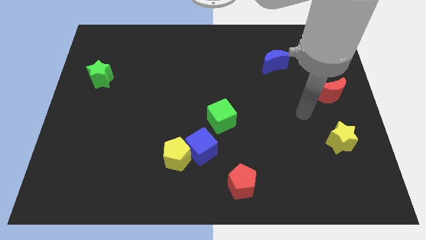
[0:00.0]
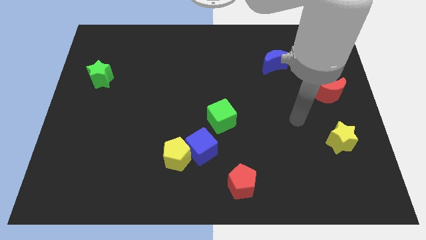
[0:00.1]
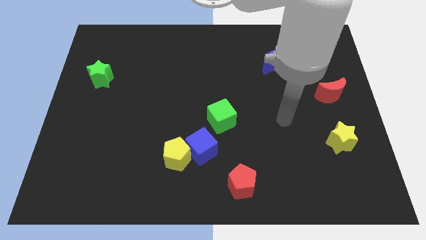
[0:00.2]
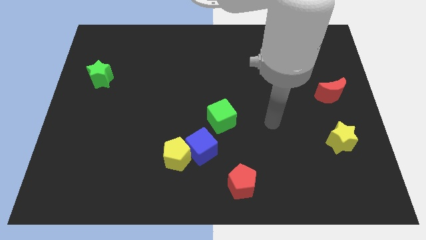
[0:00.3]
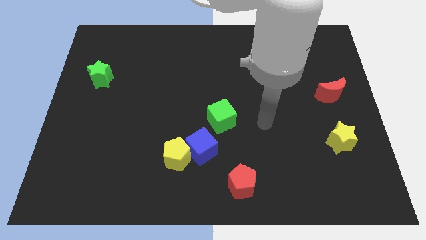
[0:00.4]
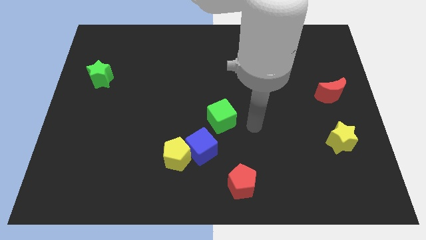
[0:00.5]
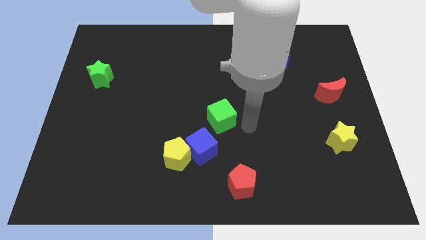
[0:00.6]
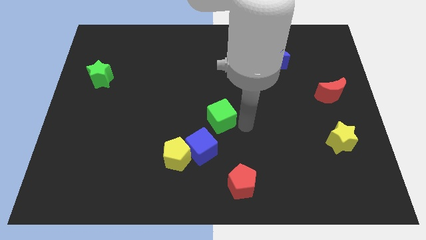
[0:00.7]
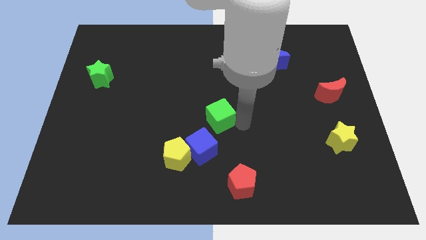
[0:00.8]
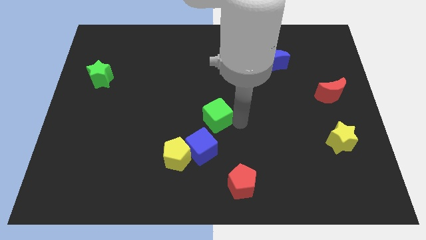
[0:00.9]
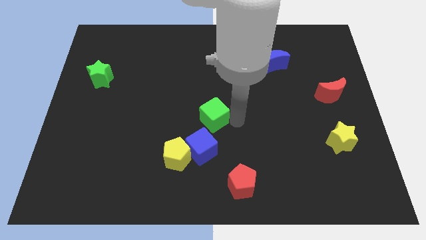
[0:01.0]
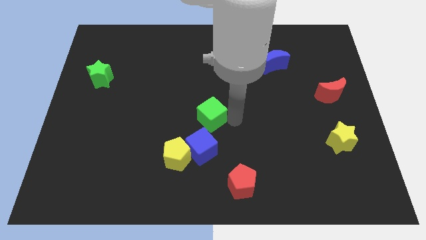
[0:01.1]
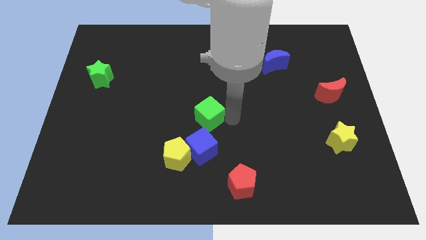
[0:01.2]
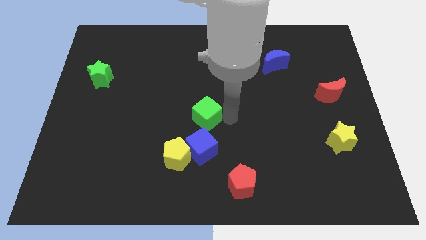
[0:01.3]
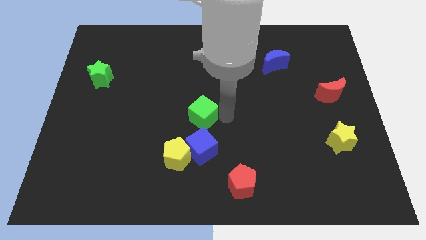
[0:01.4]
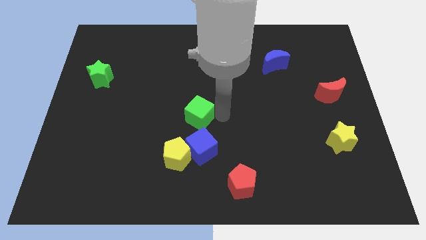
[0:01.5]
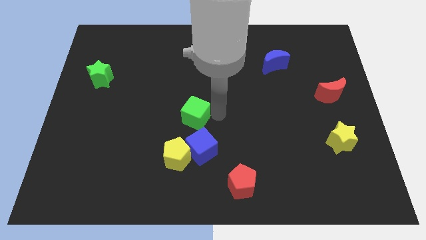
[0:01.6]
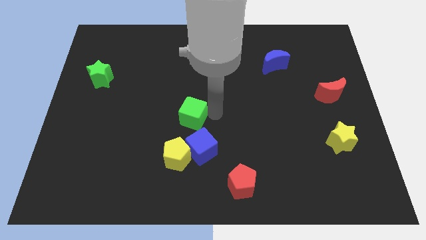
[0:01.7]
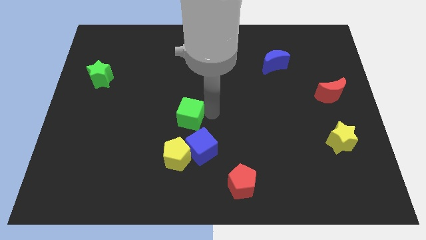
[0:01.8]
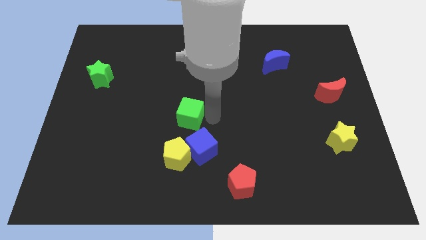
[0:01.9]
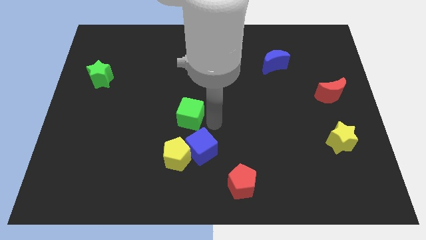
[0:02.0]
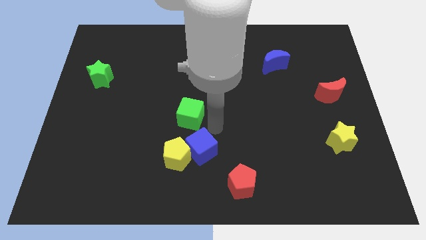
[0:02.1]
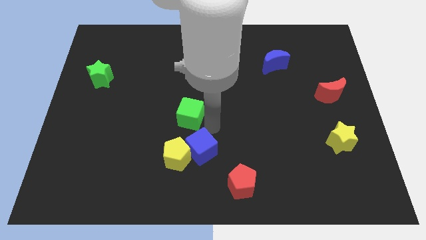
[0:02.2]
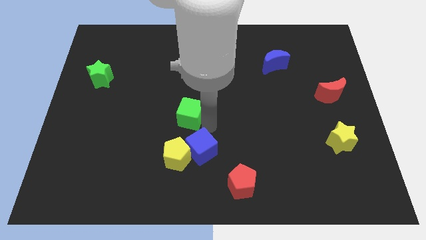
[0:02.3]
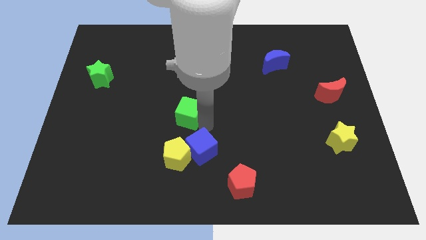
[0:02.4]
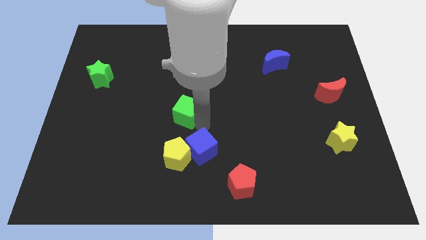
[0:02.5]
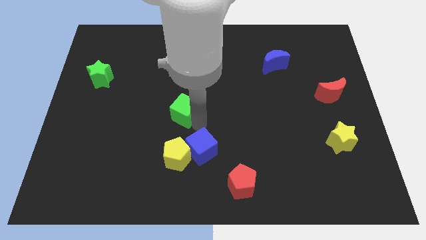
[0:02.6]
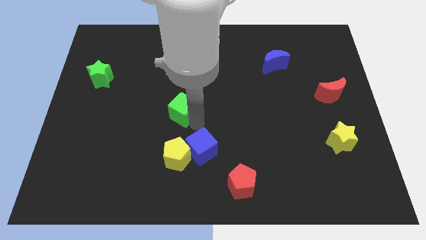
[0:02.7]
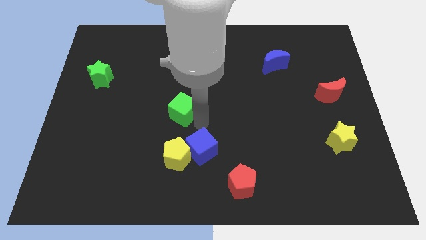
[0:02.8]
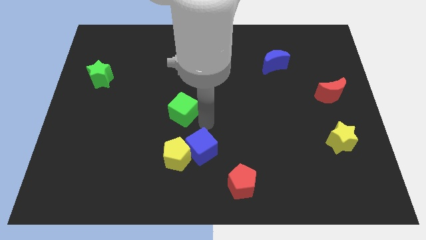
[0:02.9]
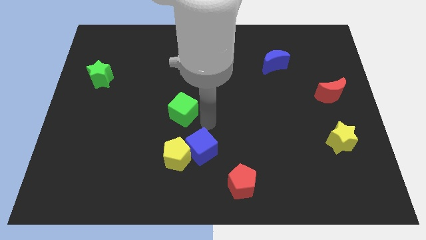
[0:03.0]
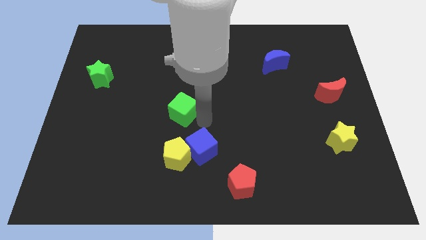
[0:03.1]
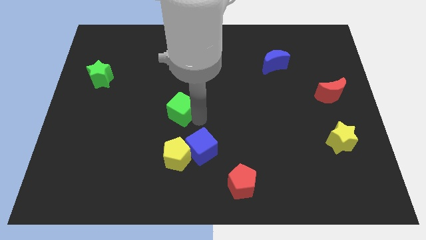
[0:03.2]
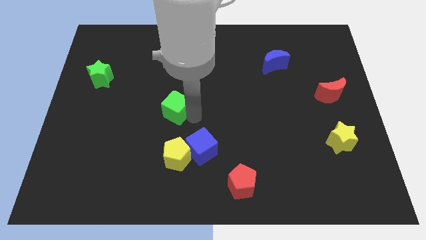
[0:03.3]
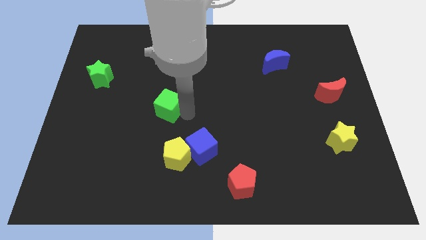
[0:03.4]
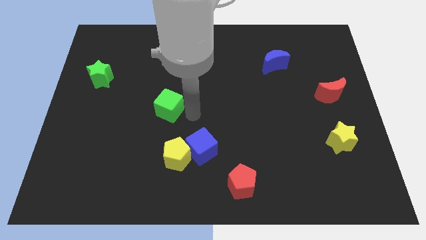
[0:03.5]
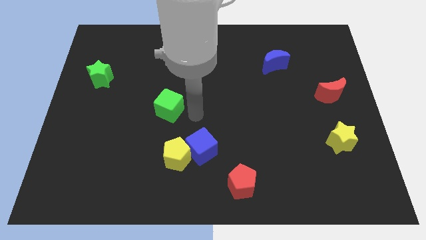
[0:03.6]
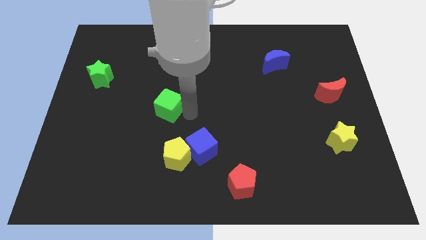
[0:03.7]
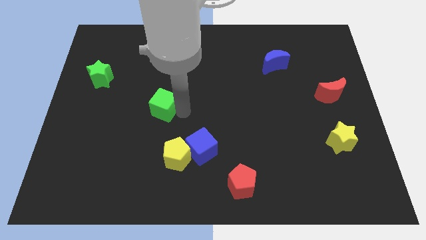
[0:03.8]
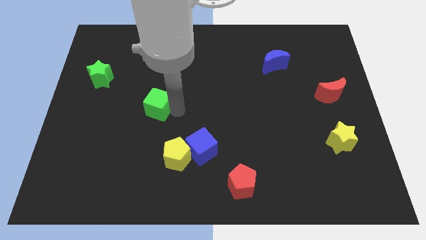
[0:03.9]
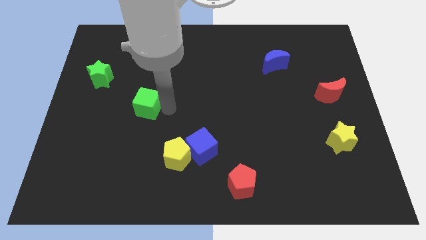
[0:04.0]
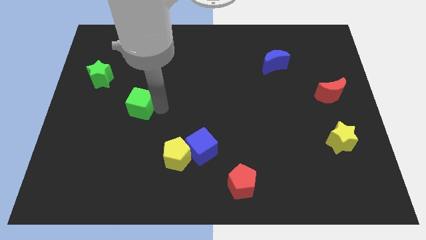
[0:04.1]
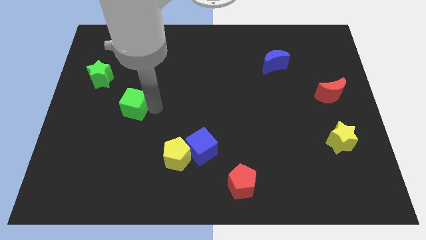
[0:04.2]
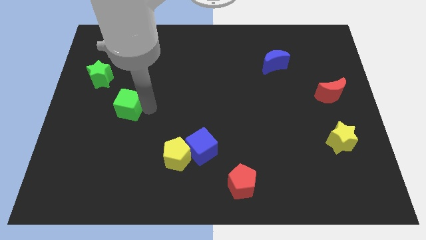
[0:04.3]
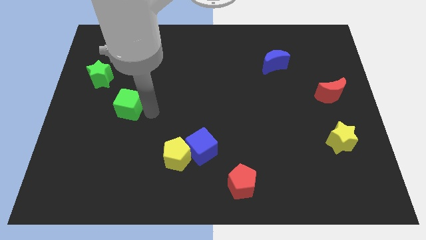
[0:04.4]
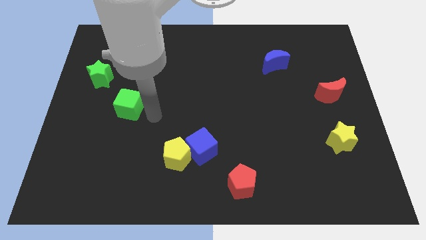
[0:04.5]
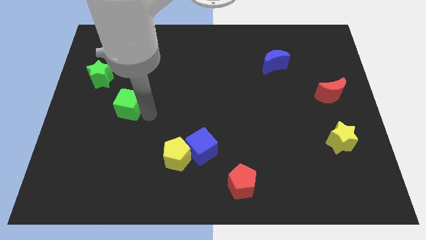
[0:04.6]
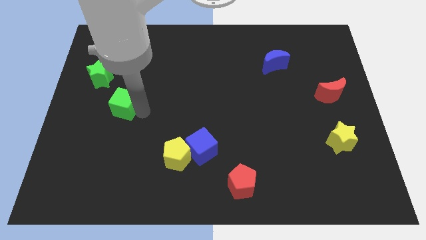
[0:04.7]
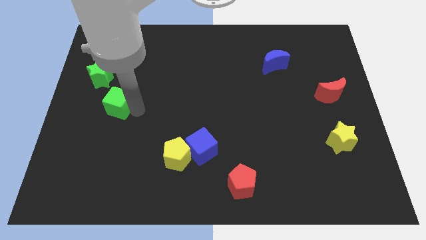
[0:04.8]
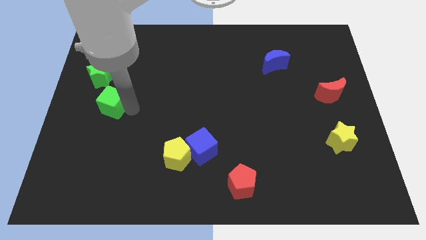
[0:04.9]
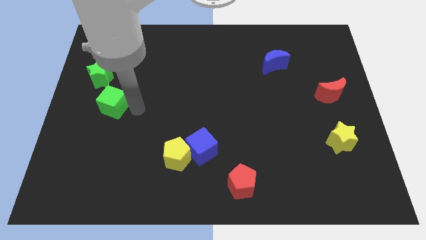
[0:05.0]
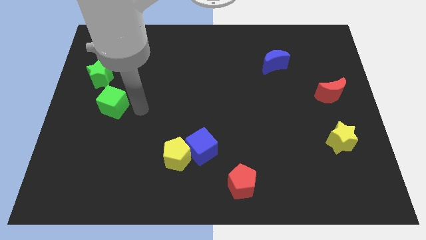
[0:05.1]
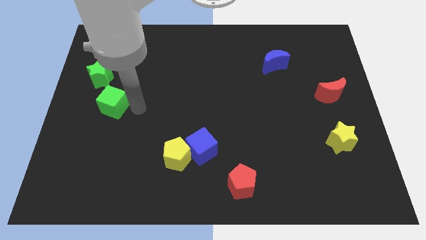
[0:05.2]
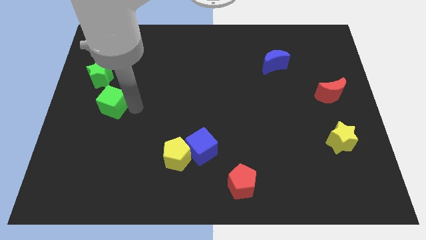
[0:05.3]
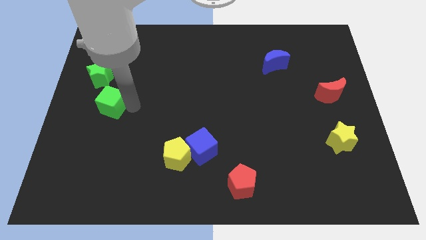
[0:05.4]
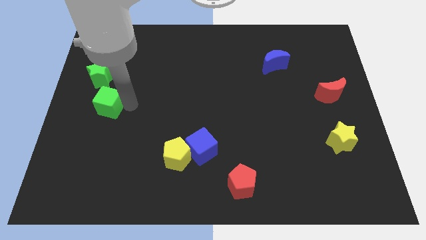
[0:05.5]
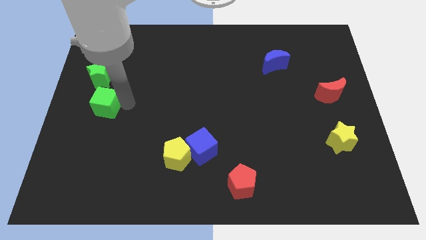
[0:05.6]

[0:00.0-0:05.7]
move the green cube to the left side of the board
